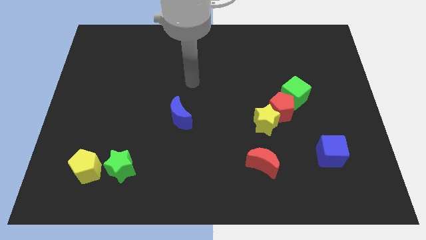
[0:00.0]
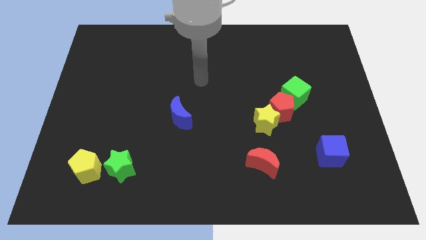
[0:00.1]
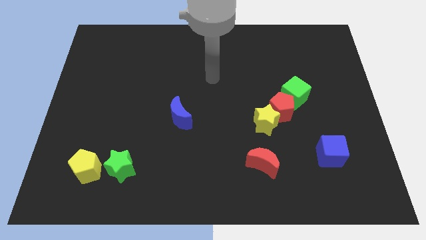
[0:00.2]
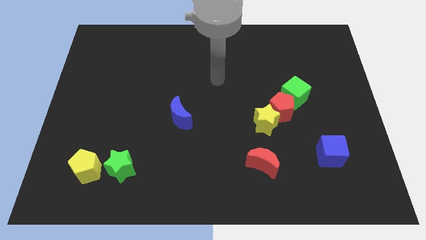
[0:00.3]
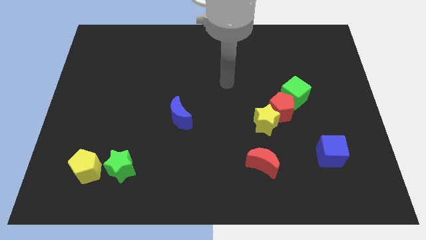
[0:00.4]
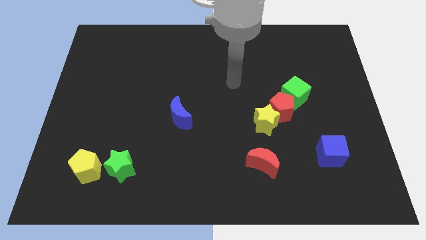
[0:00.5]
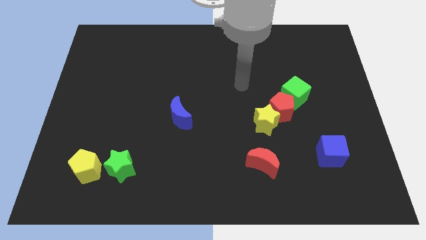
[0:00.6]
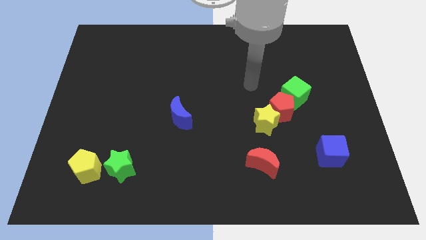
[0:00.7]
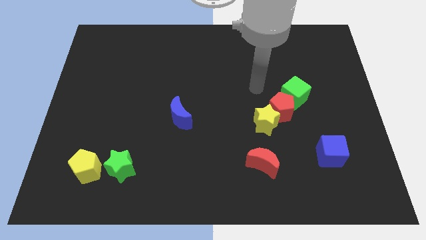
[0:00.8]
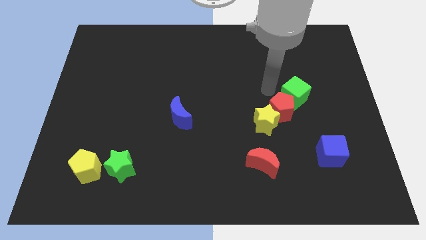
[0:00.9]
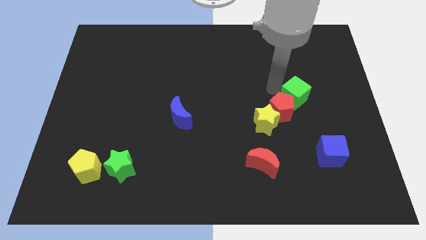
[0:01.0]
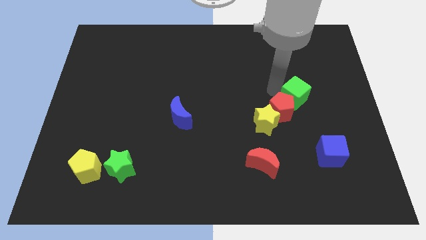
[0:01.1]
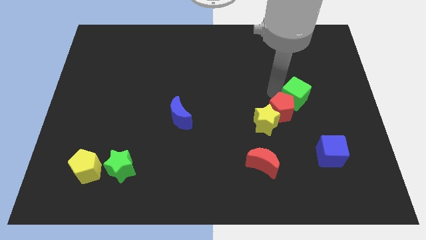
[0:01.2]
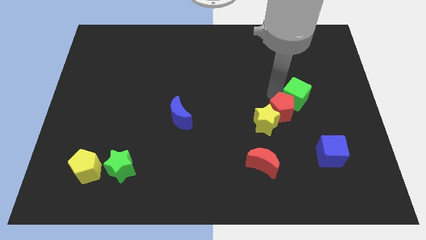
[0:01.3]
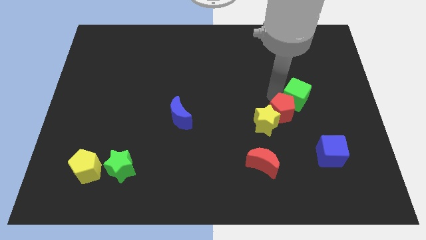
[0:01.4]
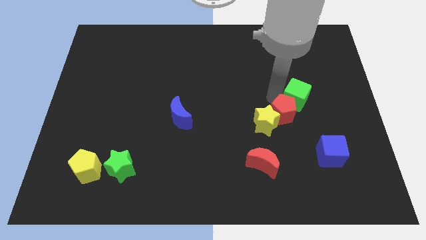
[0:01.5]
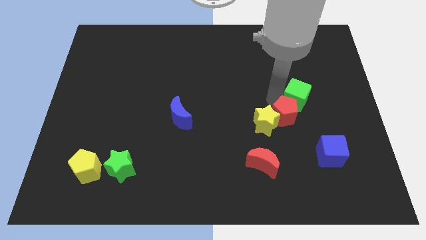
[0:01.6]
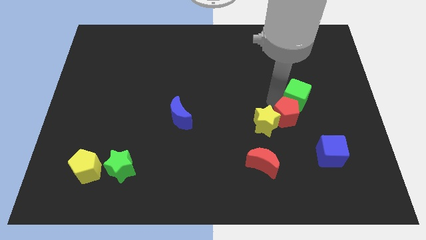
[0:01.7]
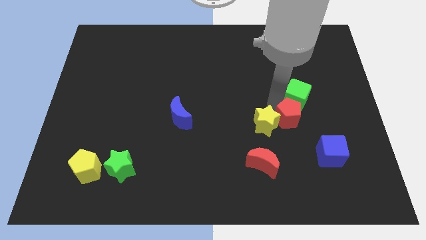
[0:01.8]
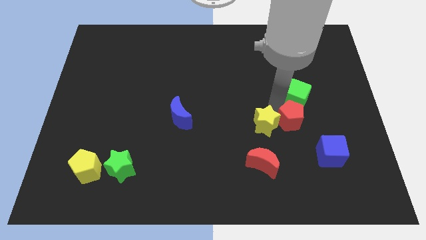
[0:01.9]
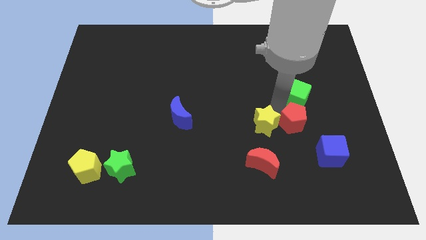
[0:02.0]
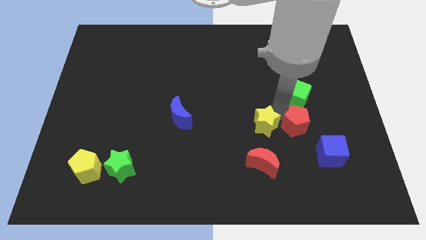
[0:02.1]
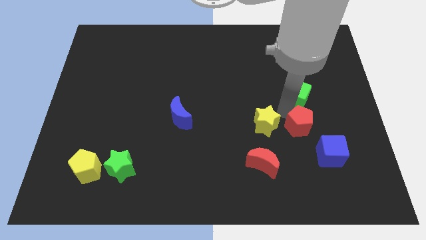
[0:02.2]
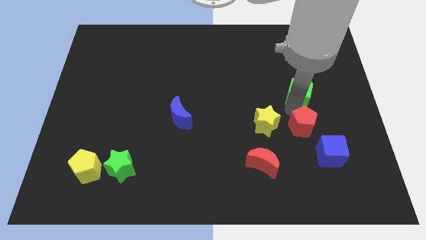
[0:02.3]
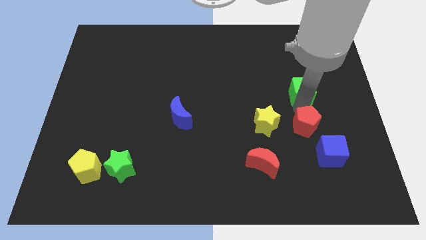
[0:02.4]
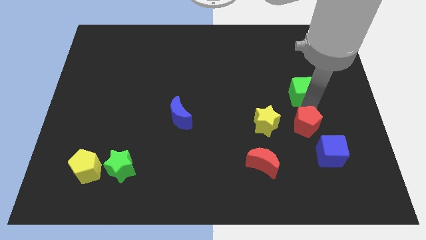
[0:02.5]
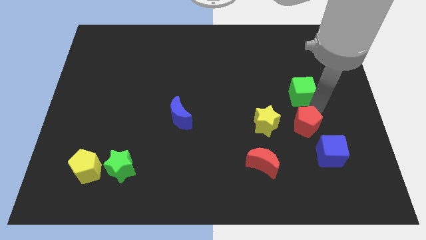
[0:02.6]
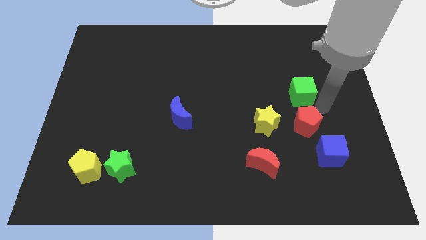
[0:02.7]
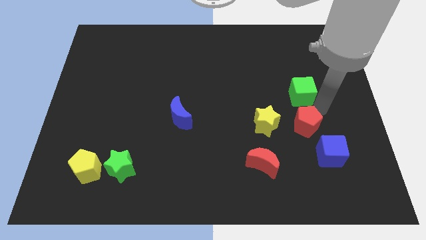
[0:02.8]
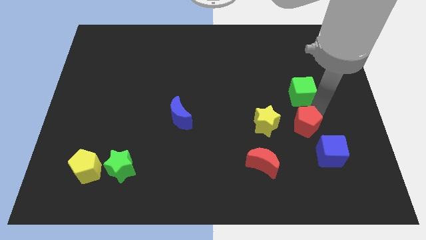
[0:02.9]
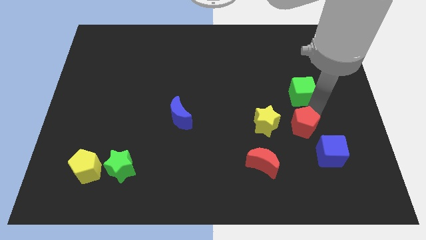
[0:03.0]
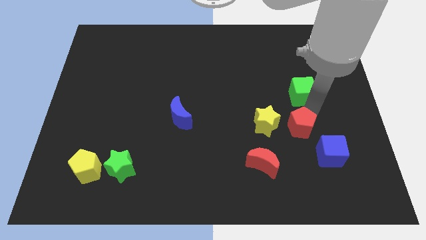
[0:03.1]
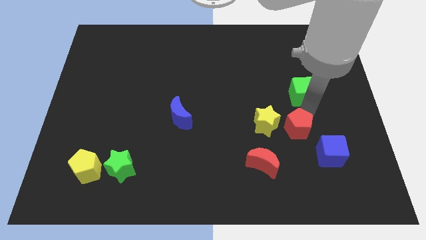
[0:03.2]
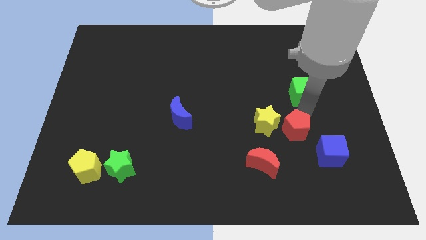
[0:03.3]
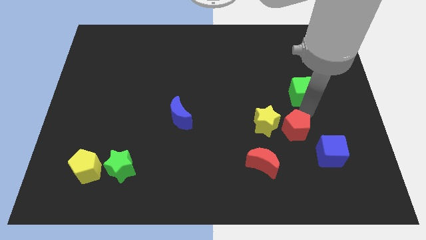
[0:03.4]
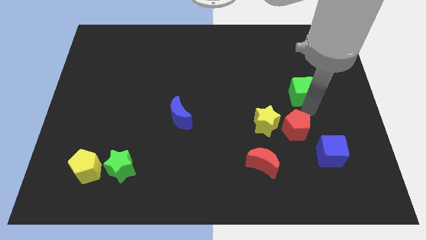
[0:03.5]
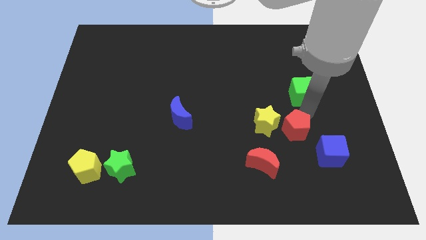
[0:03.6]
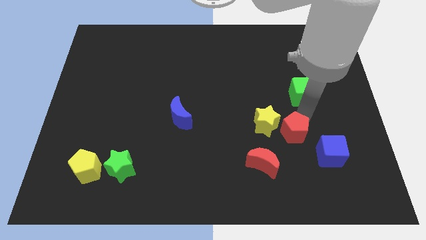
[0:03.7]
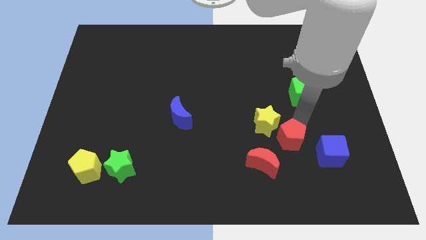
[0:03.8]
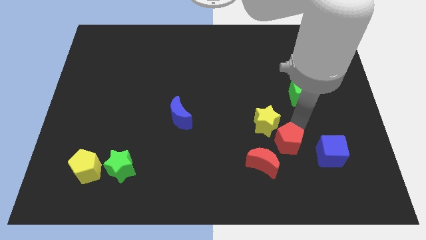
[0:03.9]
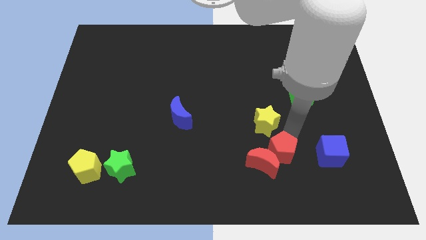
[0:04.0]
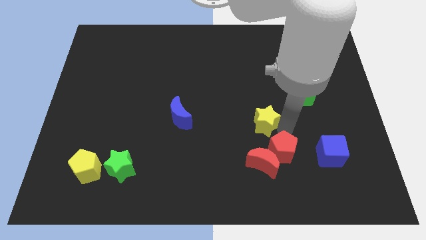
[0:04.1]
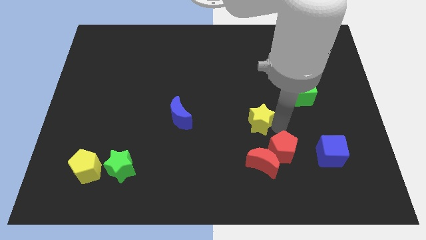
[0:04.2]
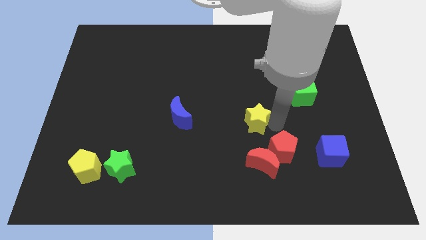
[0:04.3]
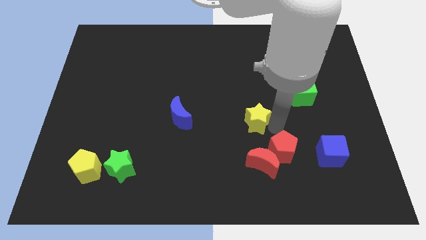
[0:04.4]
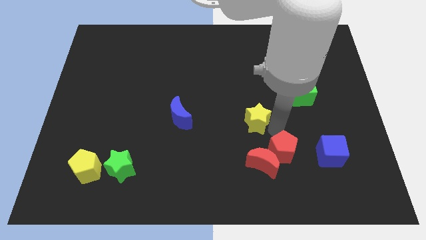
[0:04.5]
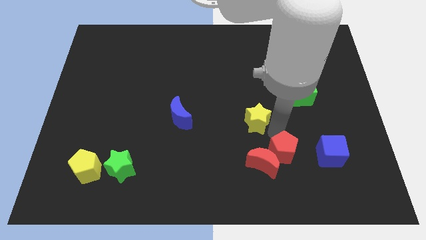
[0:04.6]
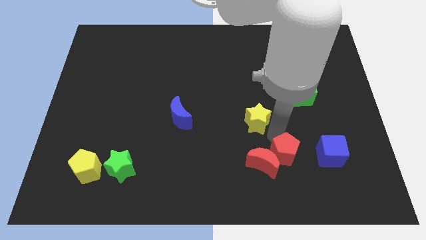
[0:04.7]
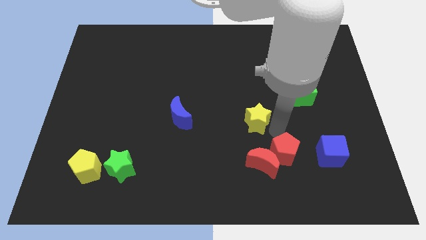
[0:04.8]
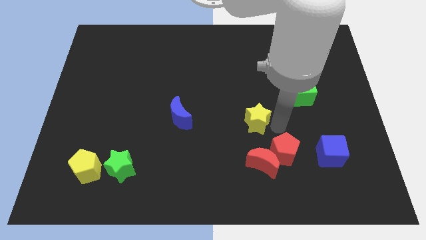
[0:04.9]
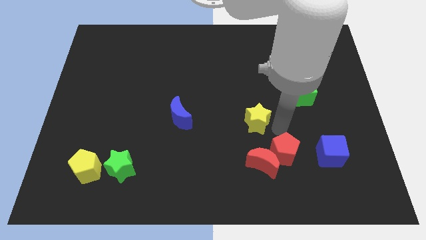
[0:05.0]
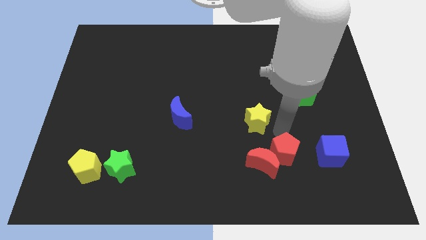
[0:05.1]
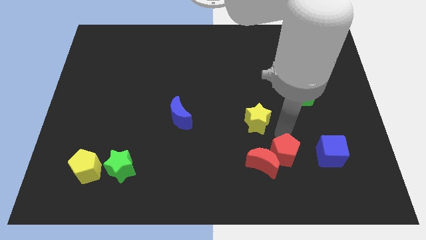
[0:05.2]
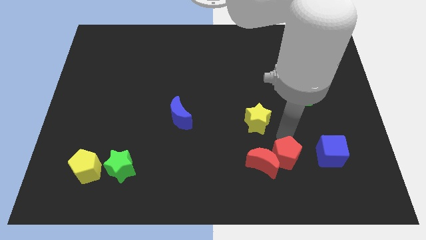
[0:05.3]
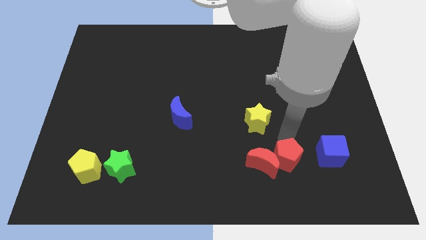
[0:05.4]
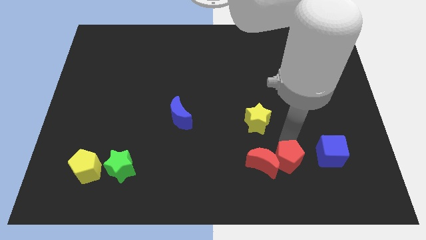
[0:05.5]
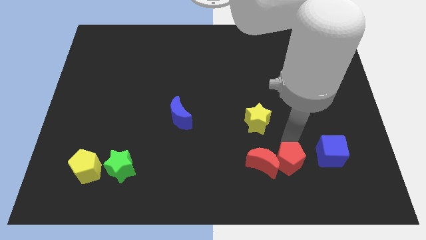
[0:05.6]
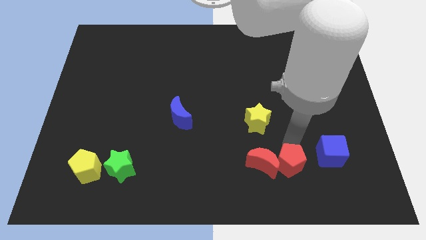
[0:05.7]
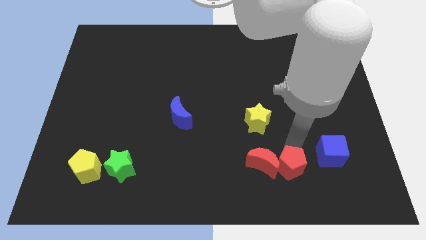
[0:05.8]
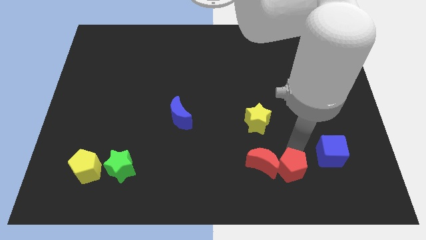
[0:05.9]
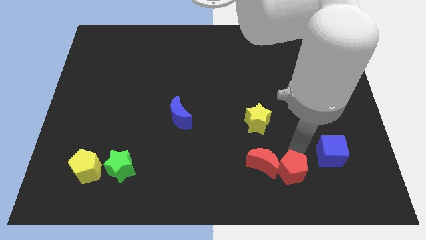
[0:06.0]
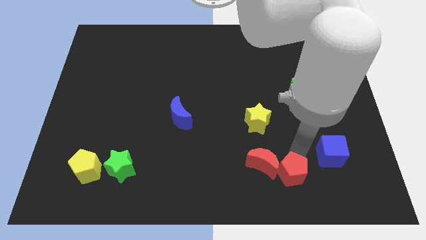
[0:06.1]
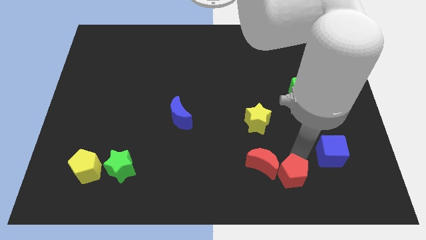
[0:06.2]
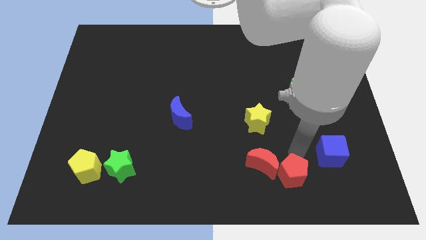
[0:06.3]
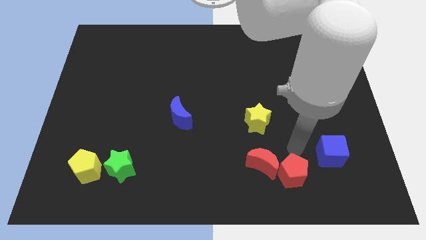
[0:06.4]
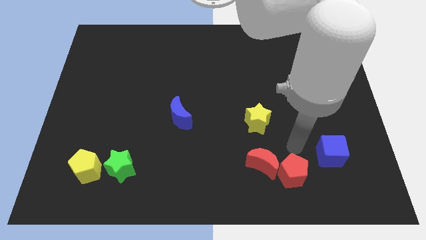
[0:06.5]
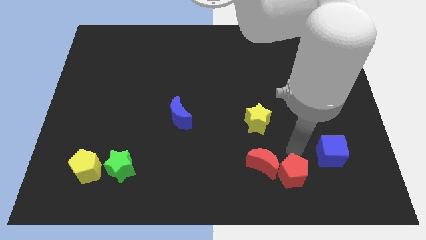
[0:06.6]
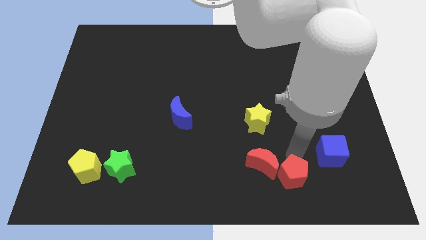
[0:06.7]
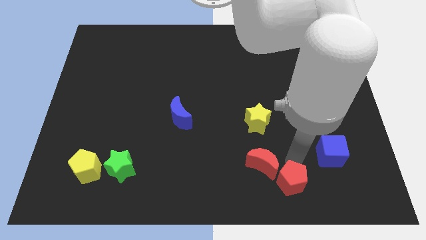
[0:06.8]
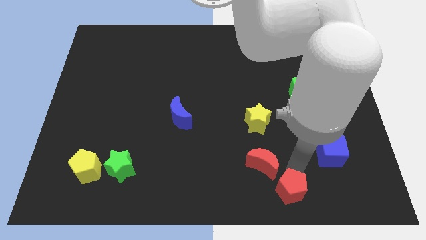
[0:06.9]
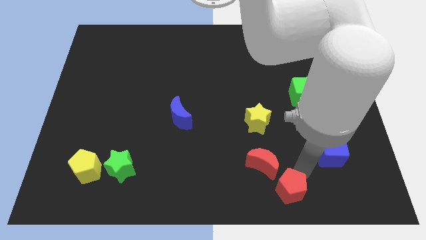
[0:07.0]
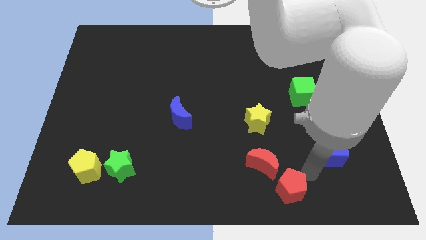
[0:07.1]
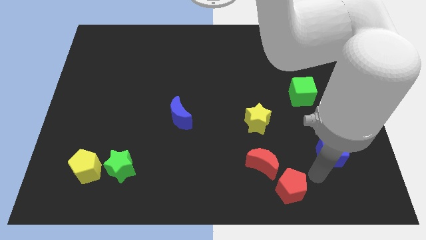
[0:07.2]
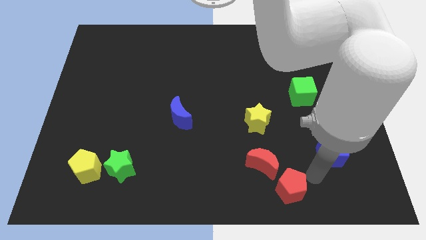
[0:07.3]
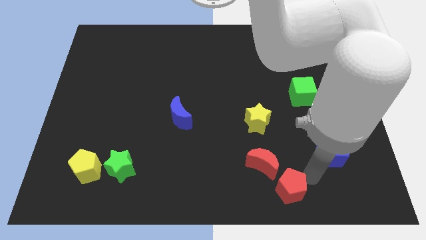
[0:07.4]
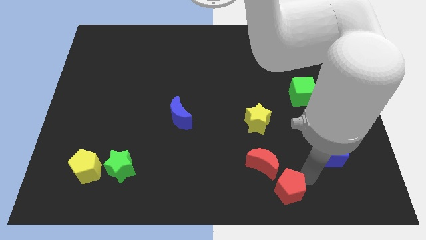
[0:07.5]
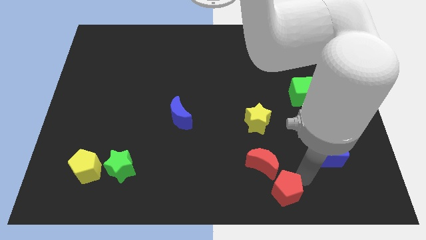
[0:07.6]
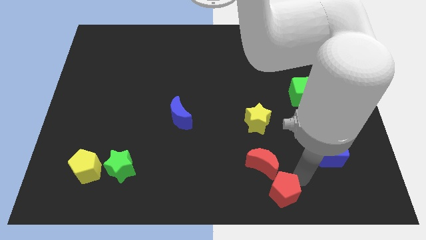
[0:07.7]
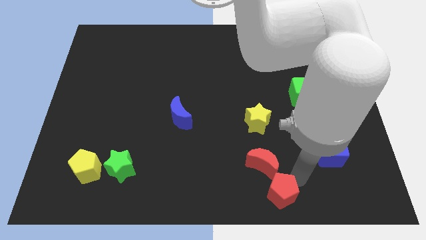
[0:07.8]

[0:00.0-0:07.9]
slide the red pentagon to the bottom side
